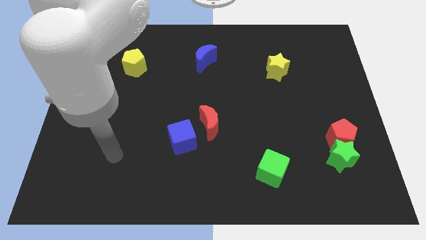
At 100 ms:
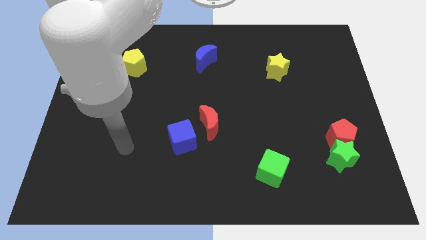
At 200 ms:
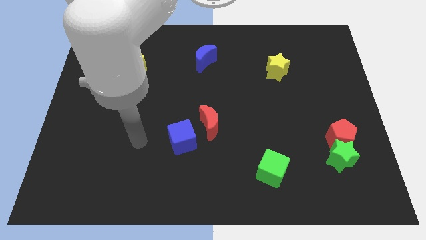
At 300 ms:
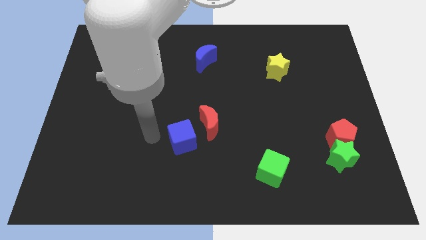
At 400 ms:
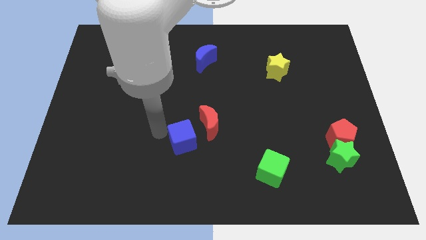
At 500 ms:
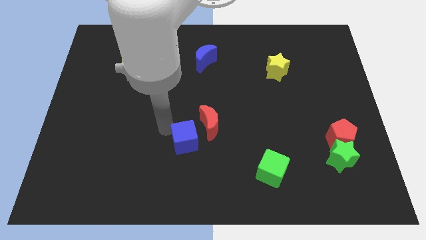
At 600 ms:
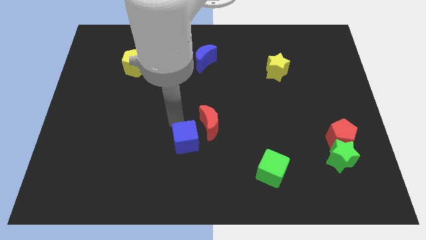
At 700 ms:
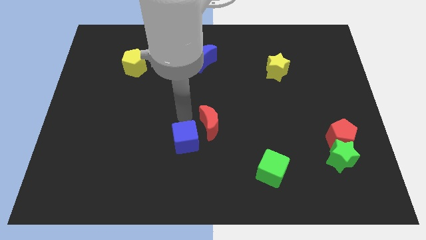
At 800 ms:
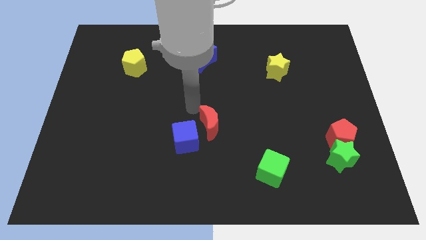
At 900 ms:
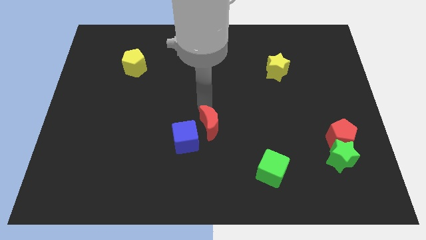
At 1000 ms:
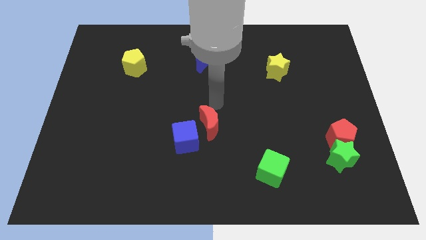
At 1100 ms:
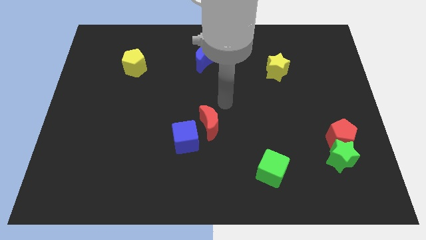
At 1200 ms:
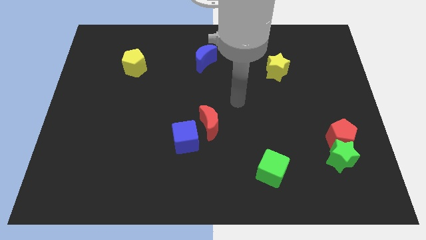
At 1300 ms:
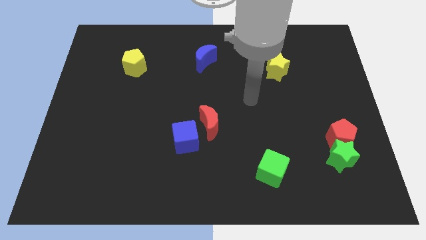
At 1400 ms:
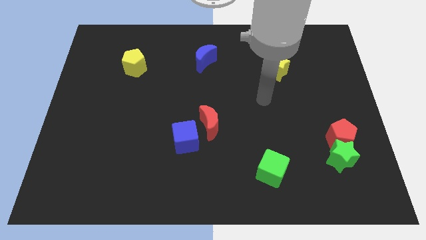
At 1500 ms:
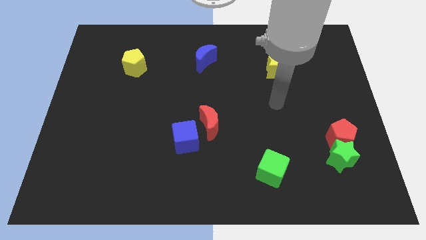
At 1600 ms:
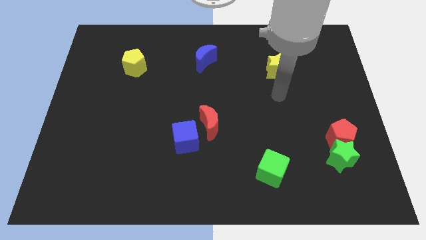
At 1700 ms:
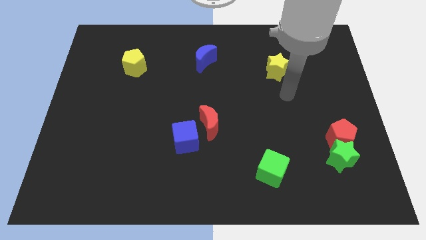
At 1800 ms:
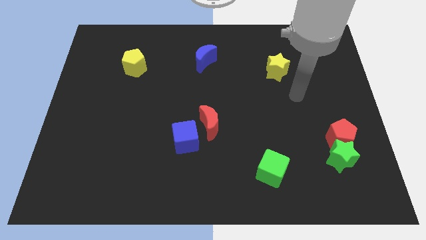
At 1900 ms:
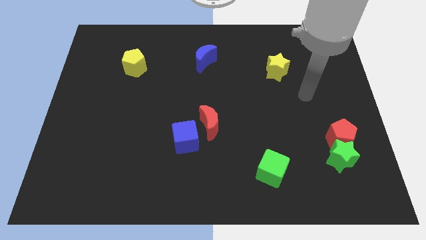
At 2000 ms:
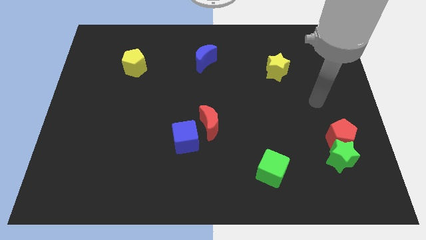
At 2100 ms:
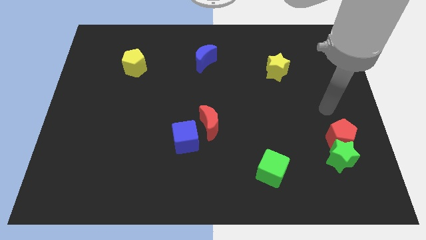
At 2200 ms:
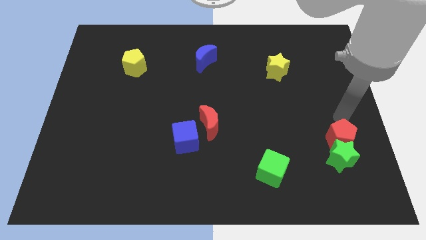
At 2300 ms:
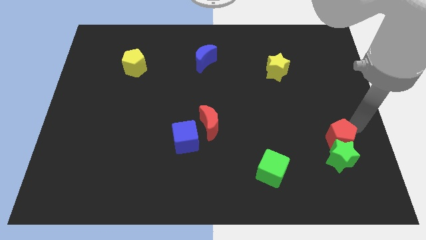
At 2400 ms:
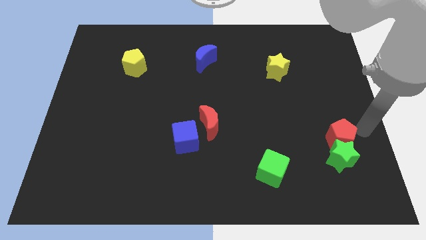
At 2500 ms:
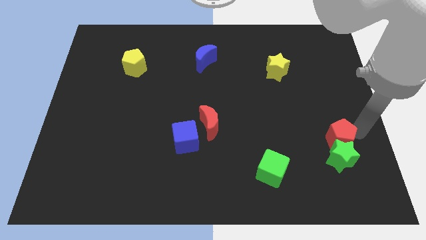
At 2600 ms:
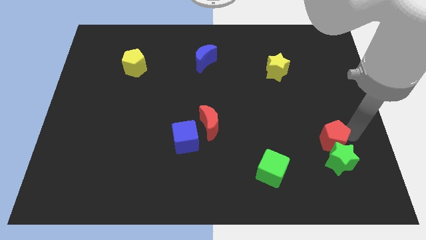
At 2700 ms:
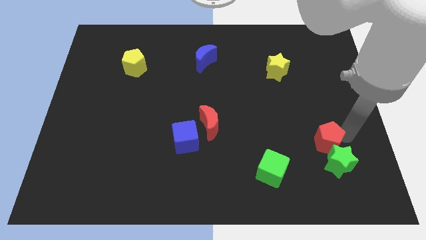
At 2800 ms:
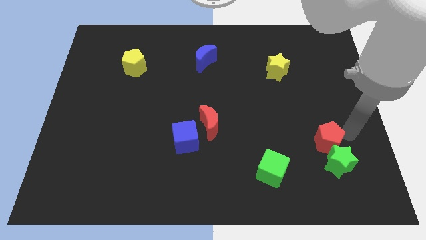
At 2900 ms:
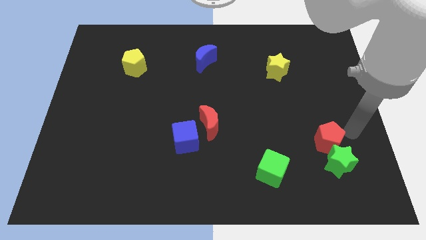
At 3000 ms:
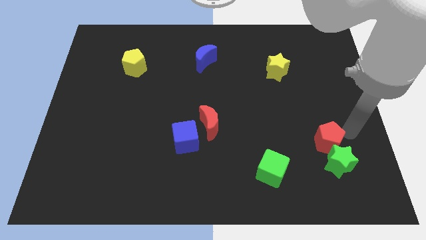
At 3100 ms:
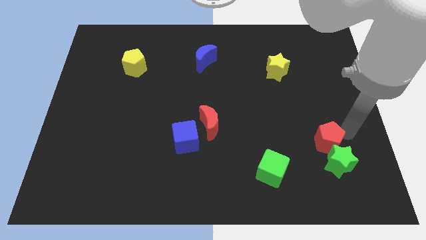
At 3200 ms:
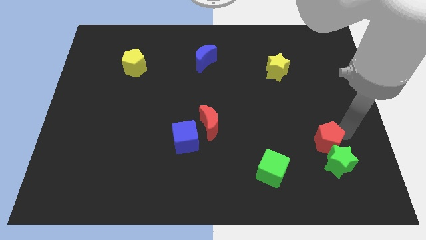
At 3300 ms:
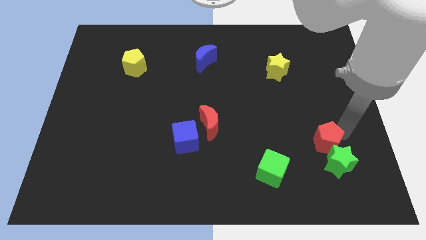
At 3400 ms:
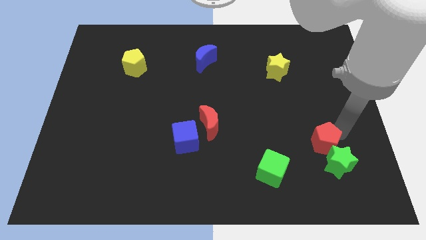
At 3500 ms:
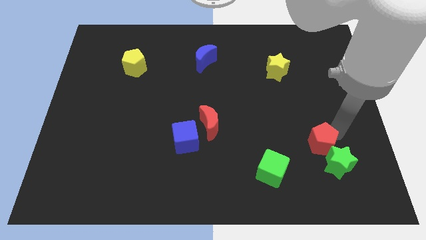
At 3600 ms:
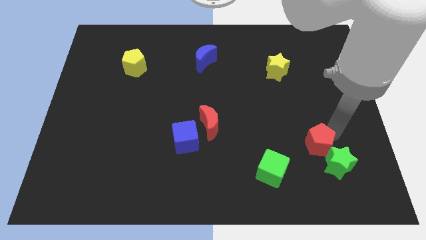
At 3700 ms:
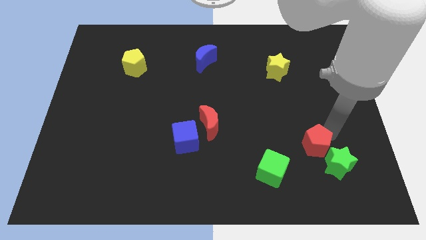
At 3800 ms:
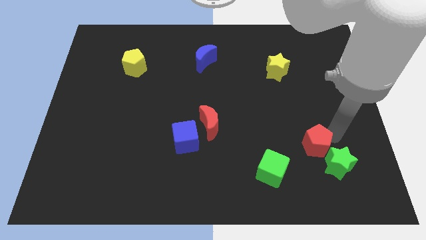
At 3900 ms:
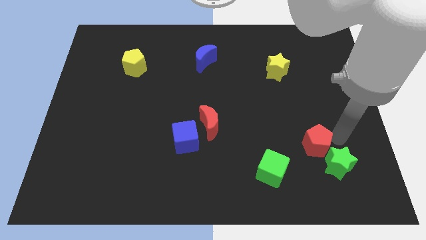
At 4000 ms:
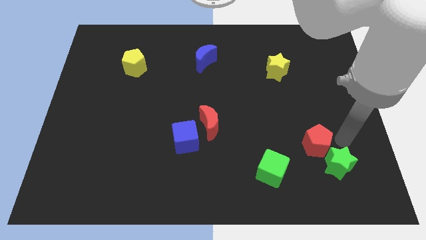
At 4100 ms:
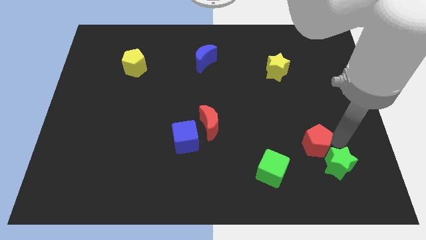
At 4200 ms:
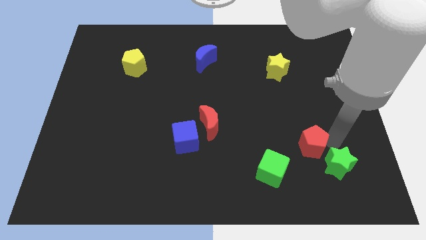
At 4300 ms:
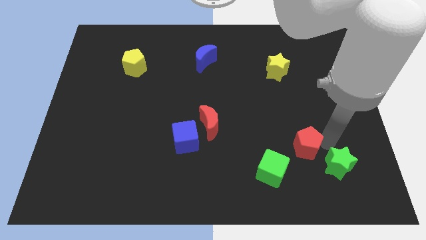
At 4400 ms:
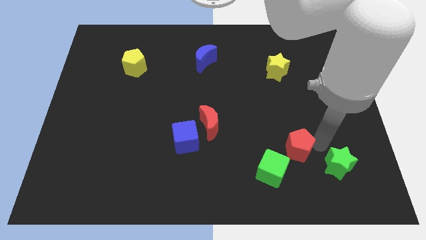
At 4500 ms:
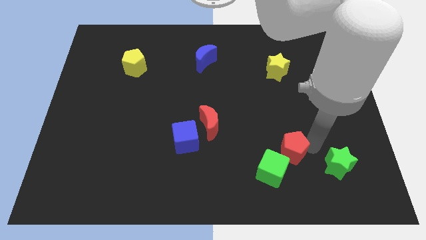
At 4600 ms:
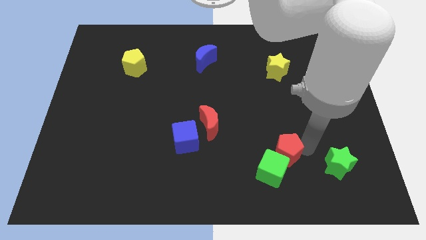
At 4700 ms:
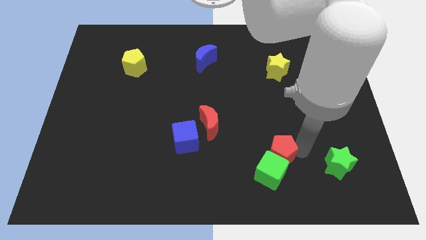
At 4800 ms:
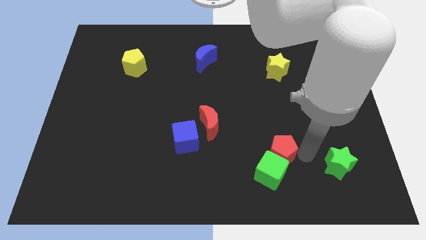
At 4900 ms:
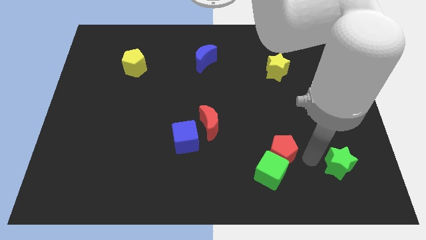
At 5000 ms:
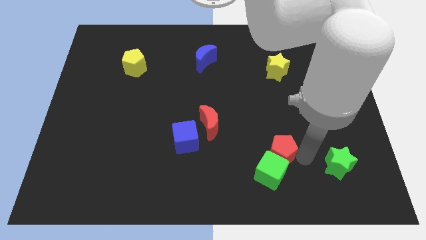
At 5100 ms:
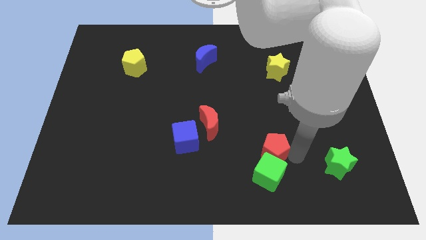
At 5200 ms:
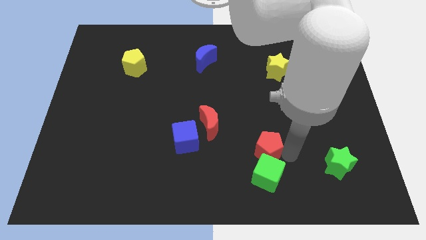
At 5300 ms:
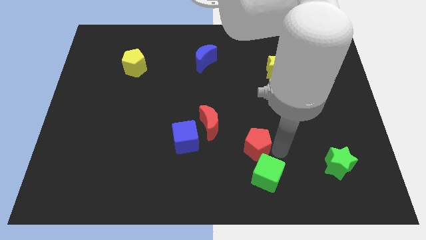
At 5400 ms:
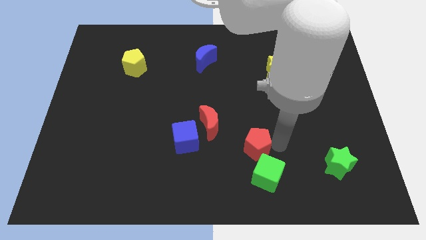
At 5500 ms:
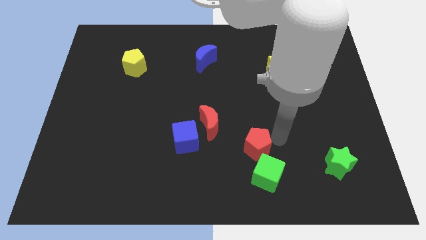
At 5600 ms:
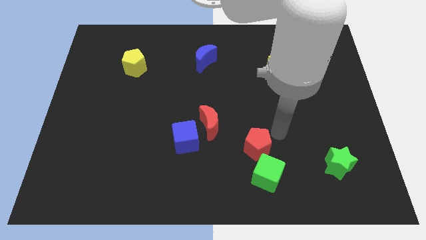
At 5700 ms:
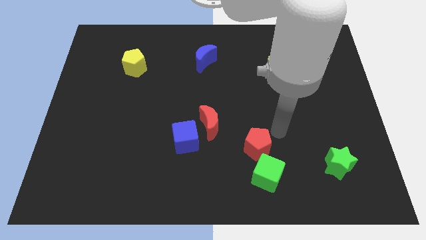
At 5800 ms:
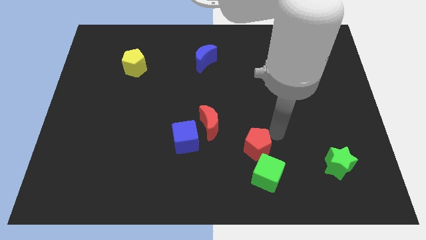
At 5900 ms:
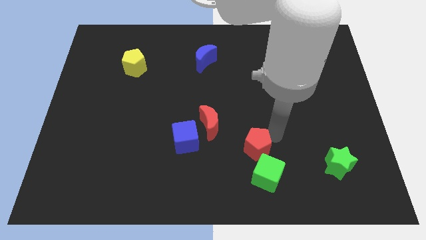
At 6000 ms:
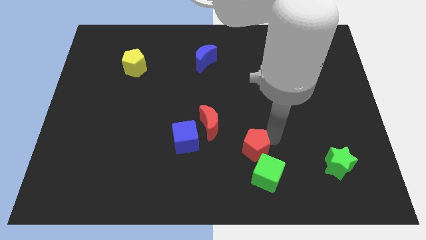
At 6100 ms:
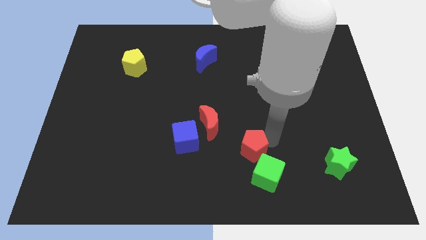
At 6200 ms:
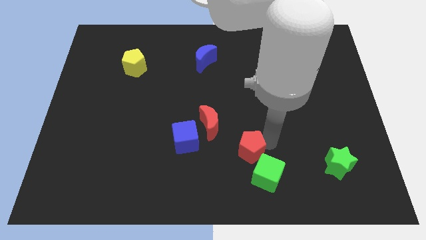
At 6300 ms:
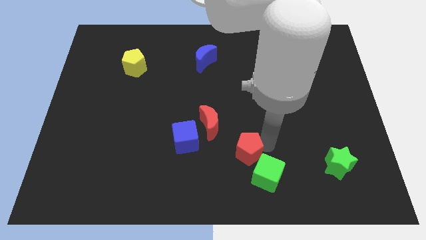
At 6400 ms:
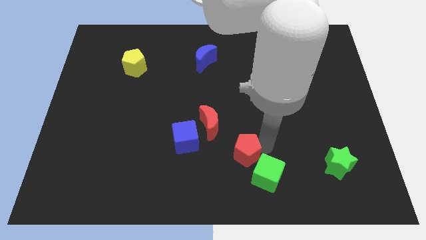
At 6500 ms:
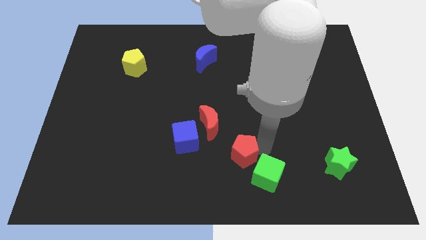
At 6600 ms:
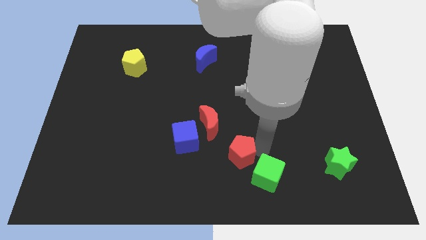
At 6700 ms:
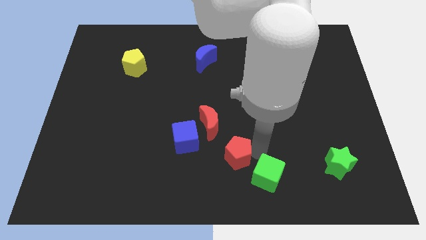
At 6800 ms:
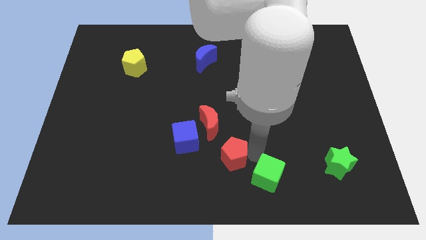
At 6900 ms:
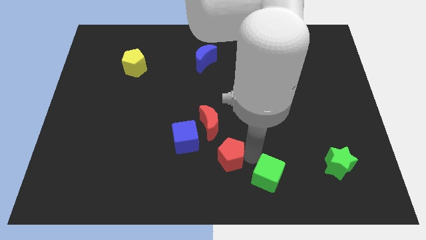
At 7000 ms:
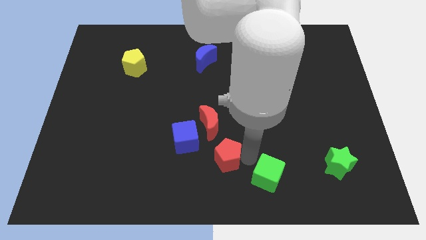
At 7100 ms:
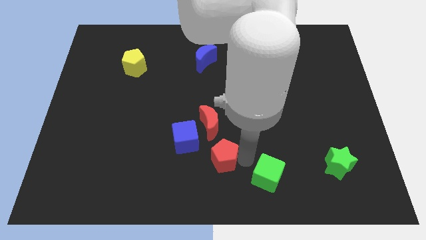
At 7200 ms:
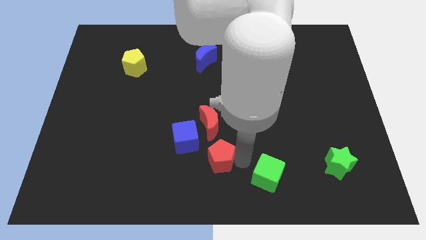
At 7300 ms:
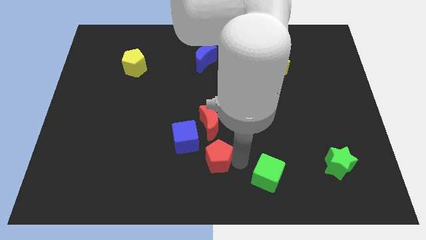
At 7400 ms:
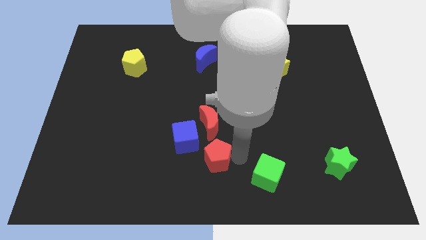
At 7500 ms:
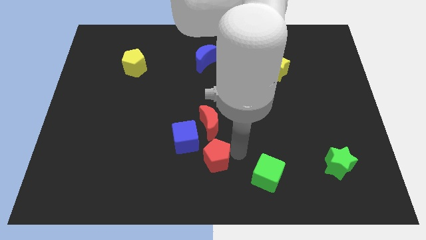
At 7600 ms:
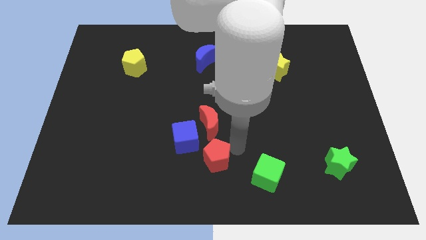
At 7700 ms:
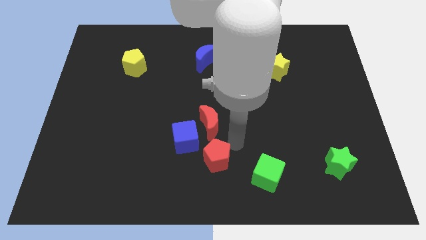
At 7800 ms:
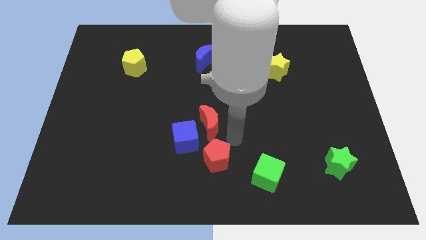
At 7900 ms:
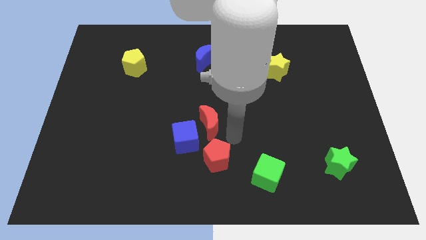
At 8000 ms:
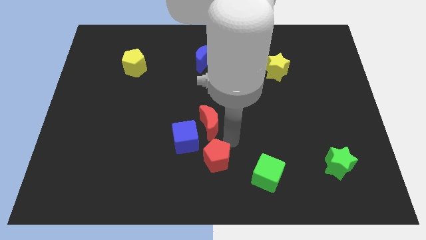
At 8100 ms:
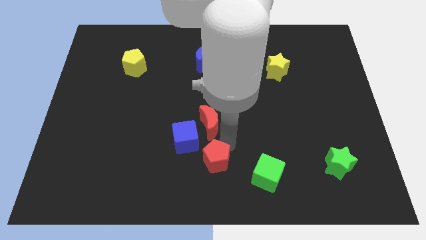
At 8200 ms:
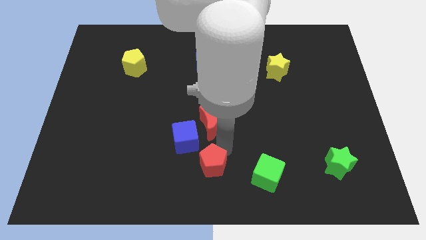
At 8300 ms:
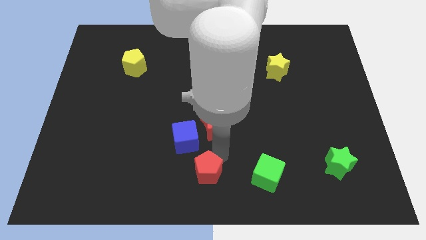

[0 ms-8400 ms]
push the red pentagon to the bottom of the blue cube
